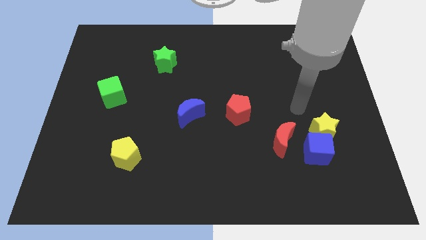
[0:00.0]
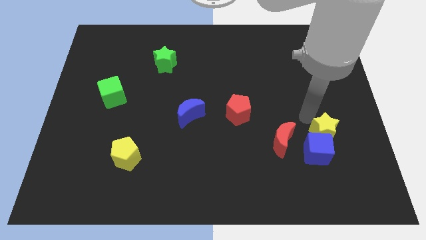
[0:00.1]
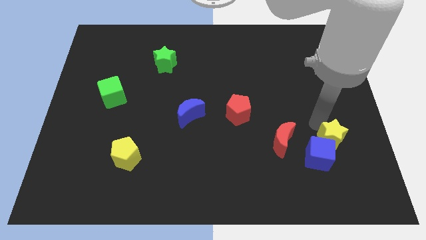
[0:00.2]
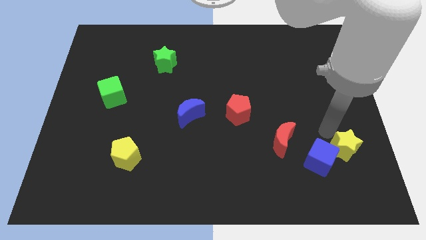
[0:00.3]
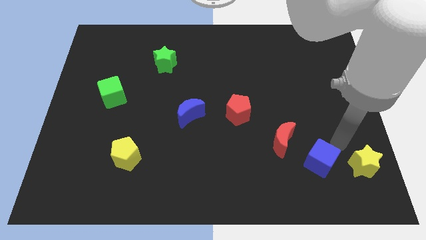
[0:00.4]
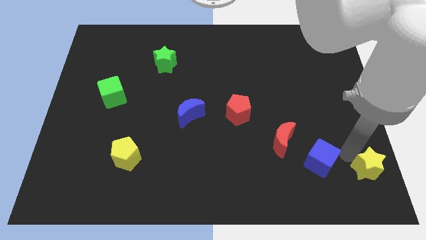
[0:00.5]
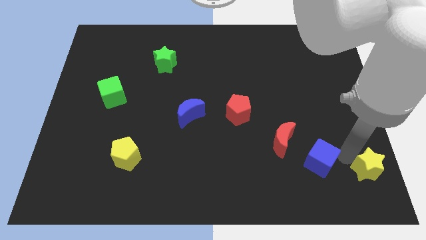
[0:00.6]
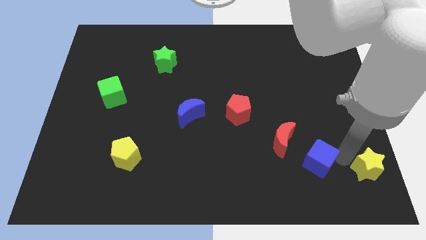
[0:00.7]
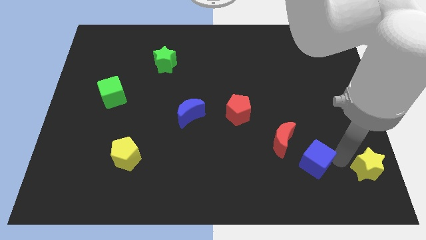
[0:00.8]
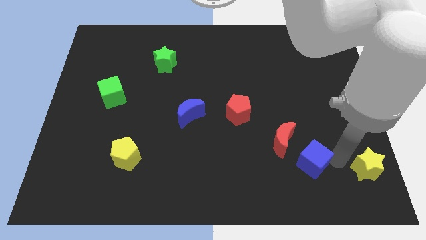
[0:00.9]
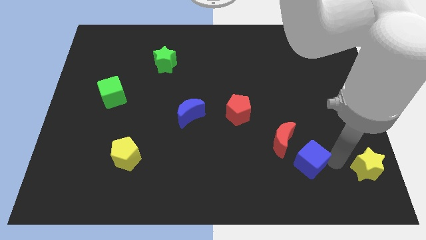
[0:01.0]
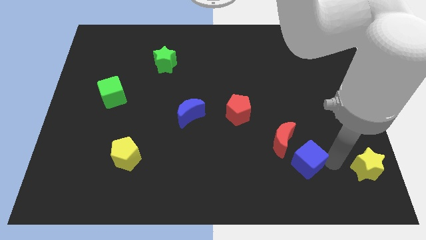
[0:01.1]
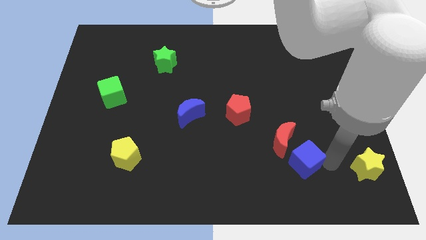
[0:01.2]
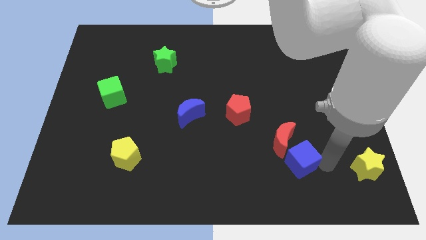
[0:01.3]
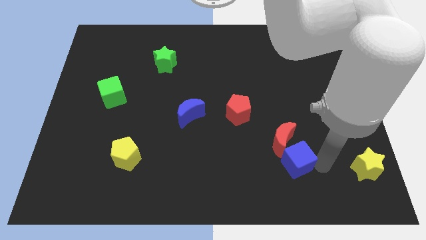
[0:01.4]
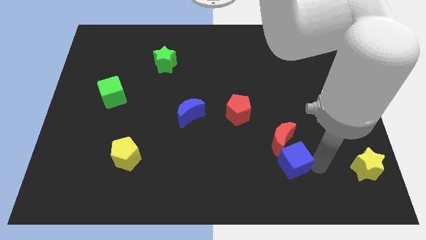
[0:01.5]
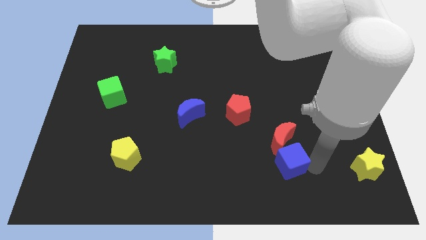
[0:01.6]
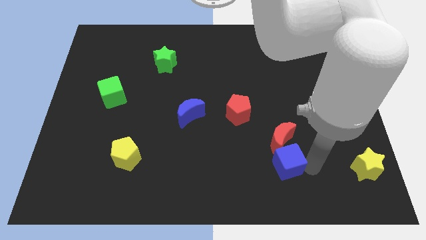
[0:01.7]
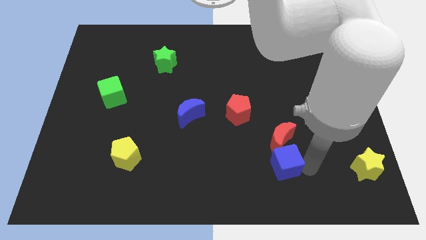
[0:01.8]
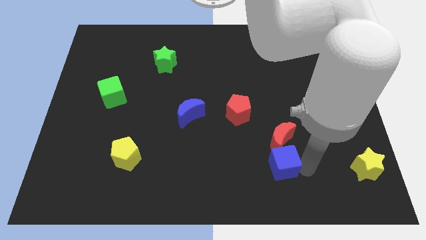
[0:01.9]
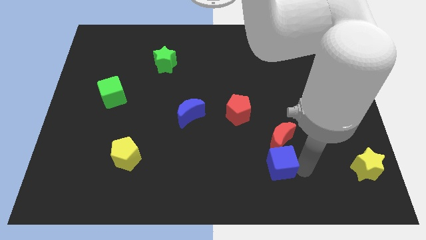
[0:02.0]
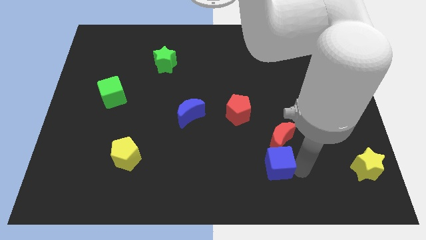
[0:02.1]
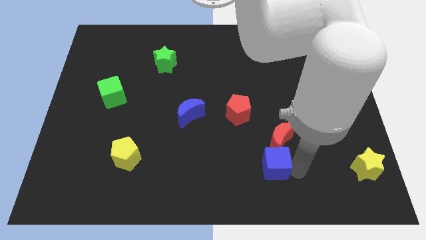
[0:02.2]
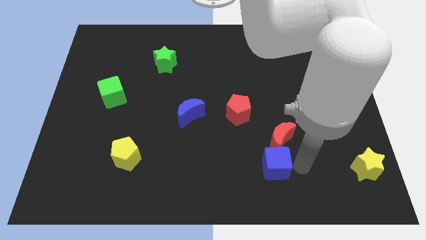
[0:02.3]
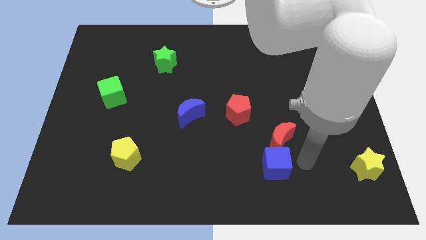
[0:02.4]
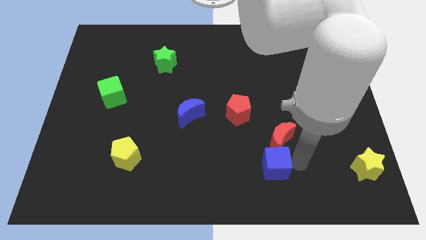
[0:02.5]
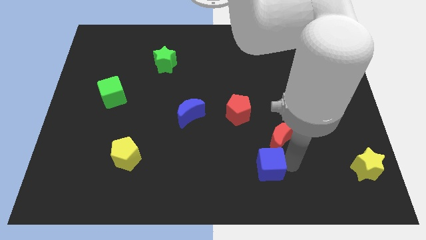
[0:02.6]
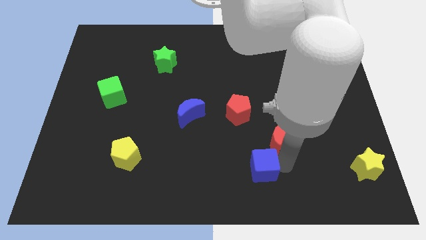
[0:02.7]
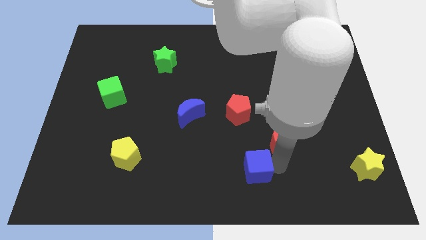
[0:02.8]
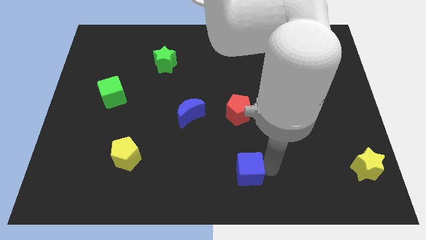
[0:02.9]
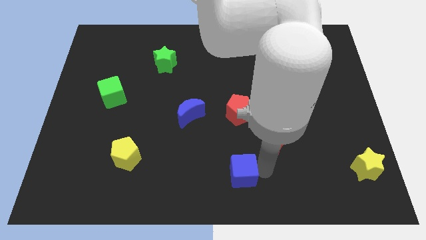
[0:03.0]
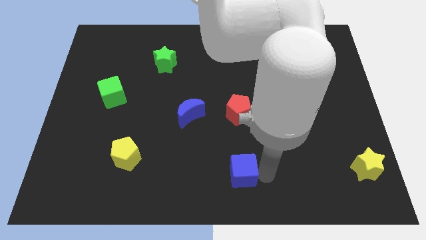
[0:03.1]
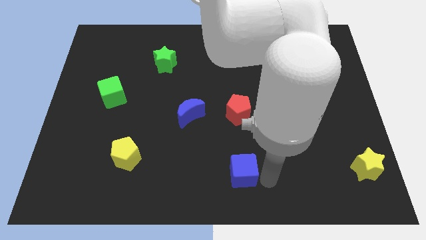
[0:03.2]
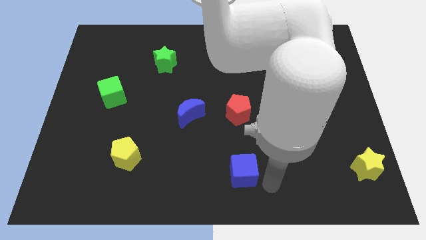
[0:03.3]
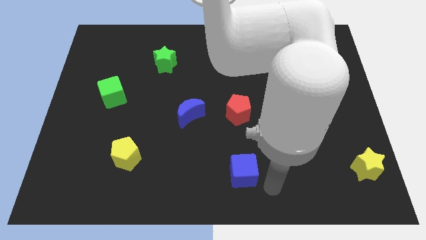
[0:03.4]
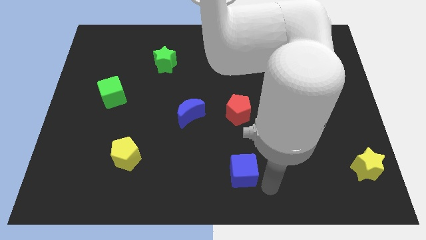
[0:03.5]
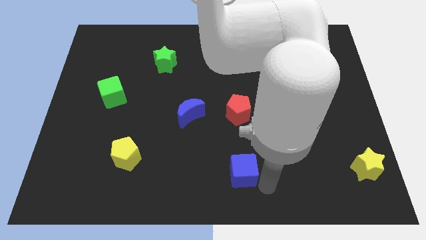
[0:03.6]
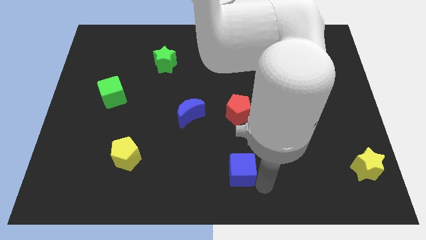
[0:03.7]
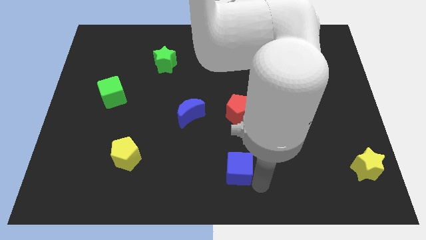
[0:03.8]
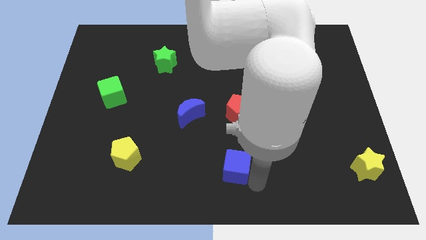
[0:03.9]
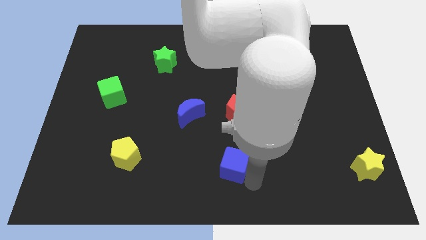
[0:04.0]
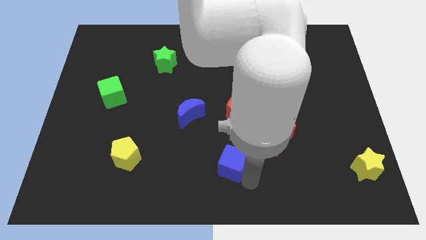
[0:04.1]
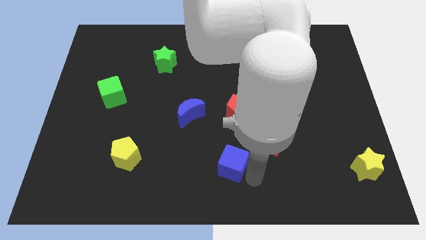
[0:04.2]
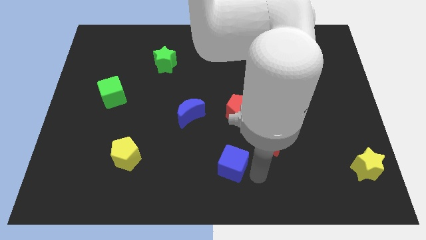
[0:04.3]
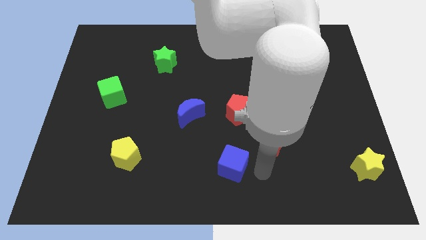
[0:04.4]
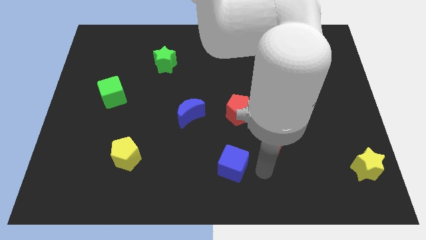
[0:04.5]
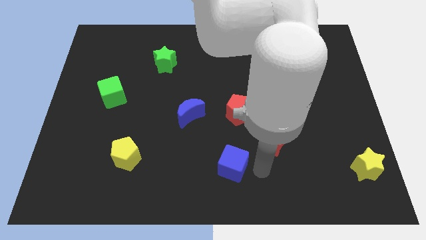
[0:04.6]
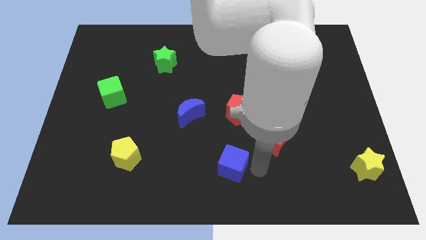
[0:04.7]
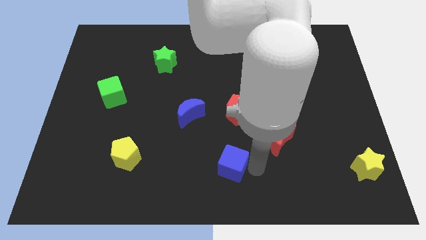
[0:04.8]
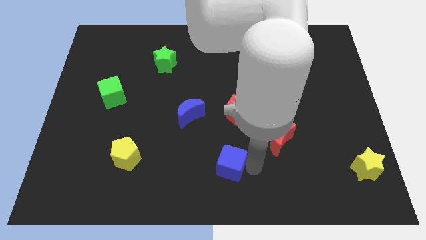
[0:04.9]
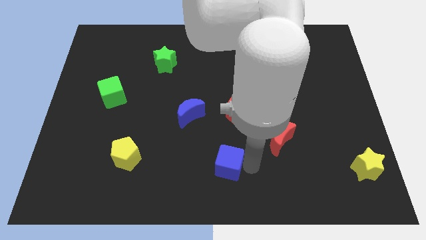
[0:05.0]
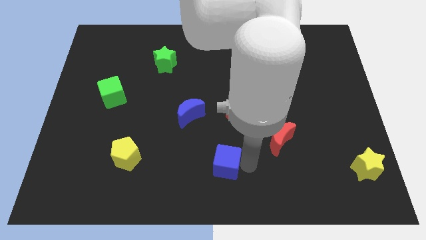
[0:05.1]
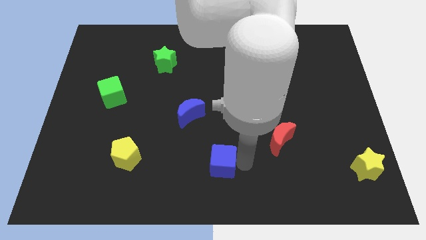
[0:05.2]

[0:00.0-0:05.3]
slide the blue cube to the left

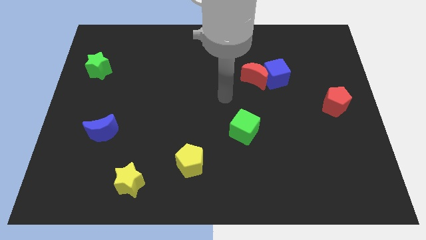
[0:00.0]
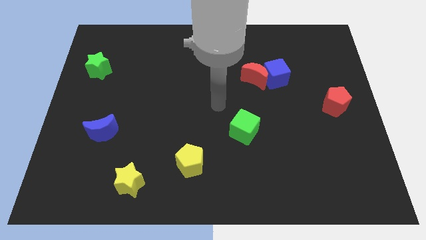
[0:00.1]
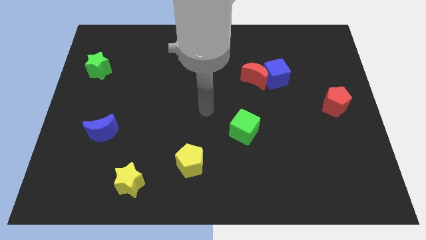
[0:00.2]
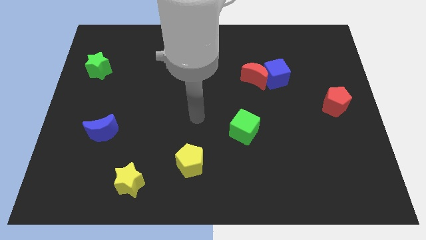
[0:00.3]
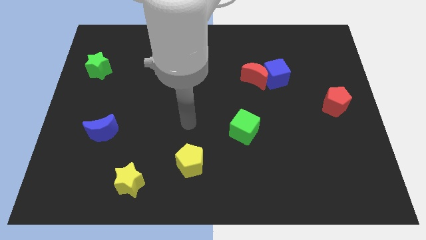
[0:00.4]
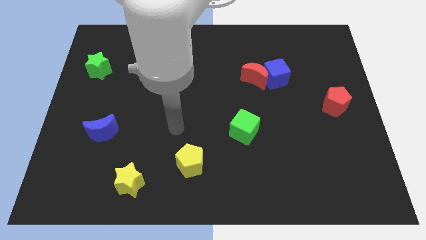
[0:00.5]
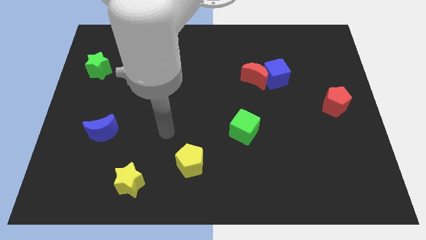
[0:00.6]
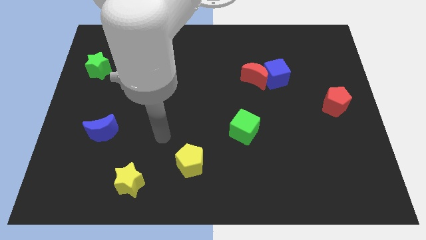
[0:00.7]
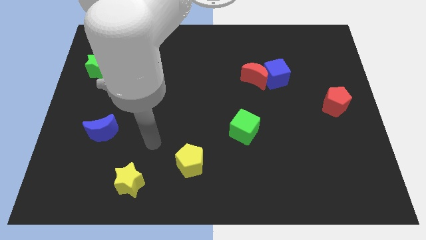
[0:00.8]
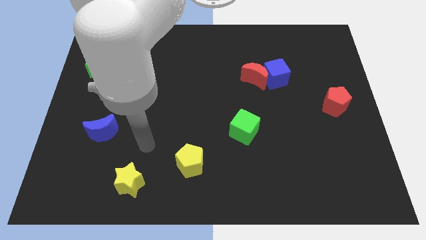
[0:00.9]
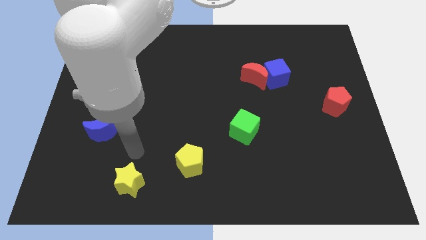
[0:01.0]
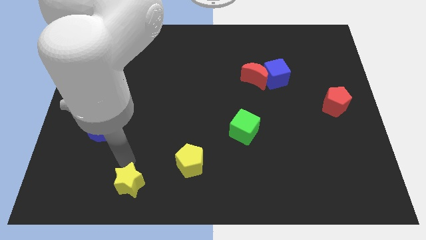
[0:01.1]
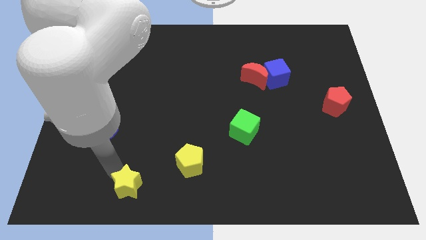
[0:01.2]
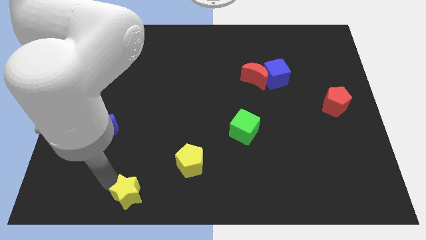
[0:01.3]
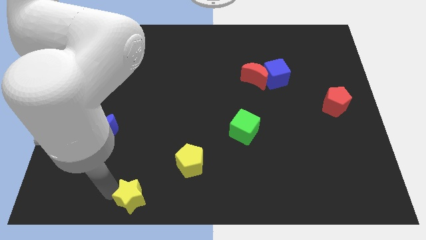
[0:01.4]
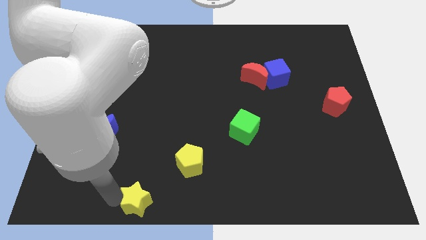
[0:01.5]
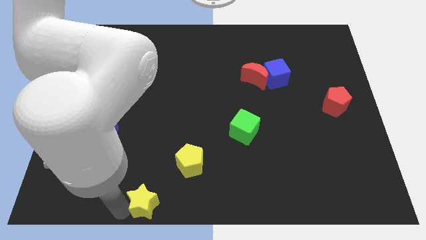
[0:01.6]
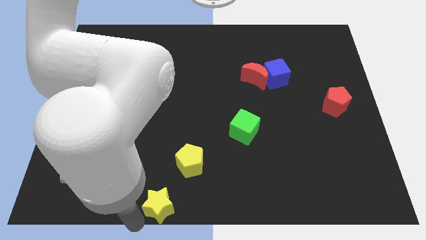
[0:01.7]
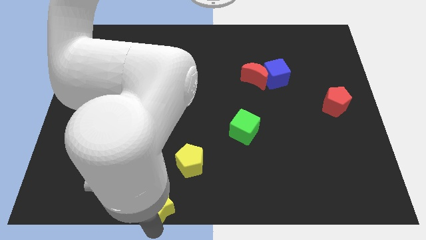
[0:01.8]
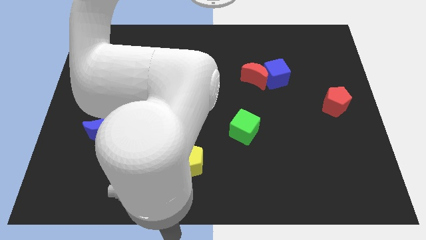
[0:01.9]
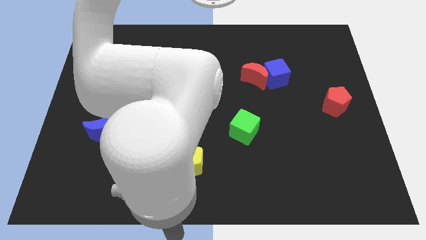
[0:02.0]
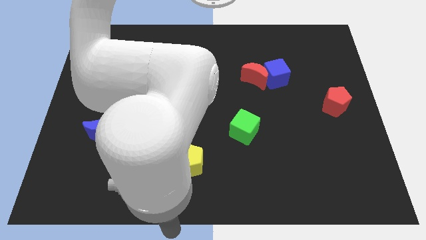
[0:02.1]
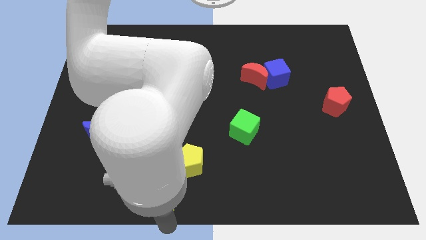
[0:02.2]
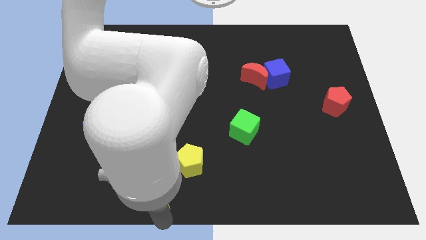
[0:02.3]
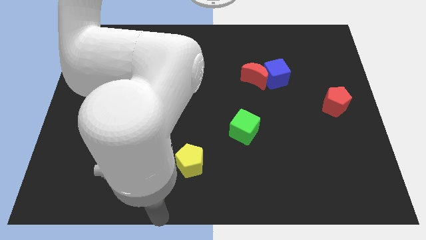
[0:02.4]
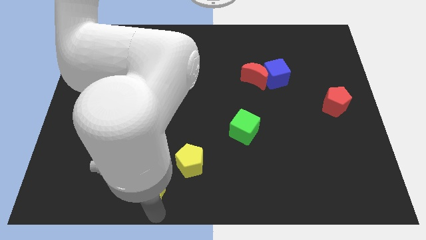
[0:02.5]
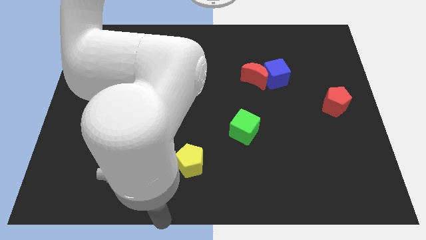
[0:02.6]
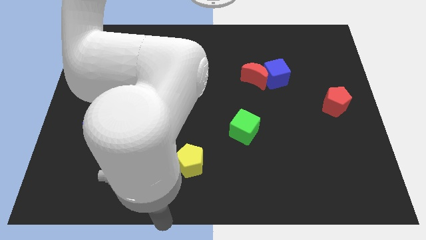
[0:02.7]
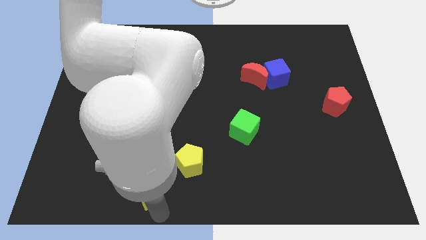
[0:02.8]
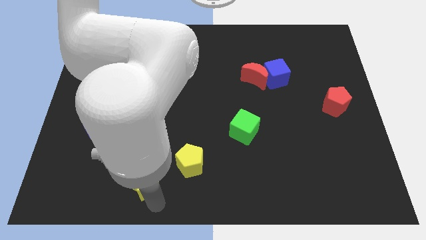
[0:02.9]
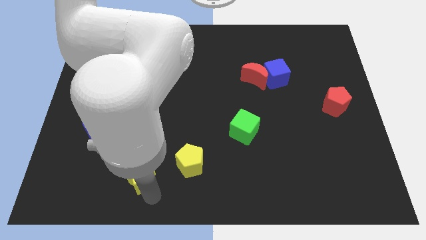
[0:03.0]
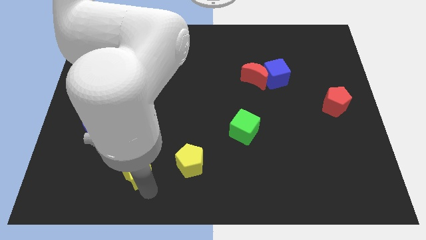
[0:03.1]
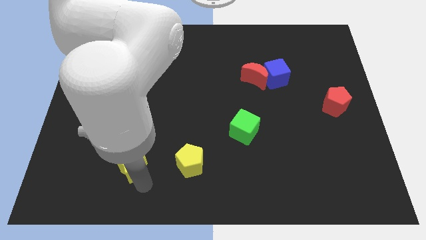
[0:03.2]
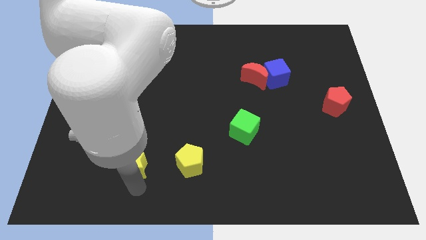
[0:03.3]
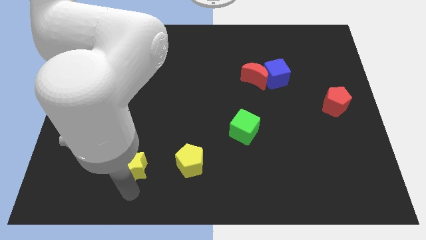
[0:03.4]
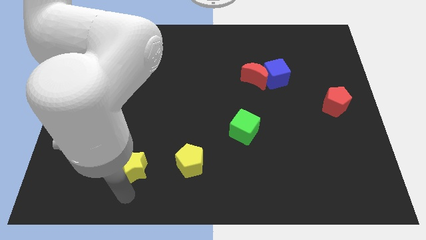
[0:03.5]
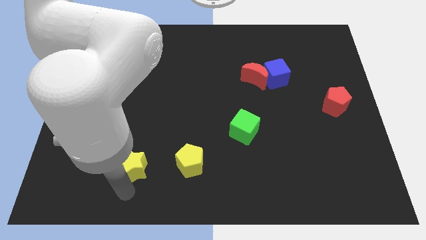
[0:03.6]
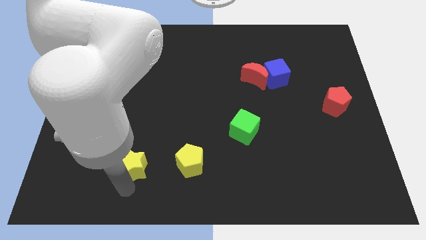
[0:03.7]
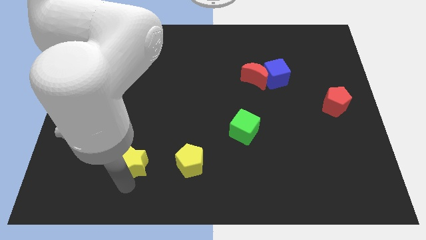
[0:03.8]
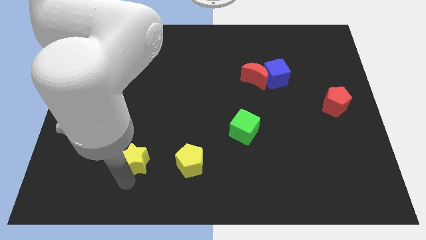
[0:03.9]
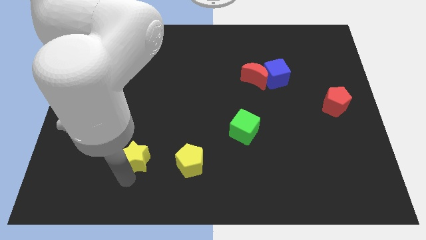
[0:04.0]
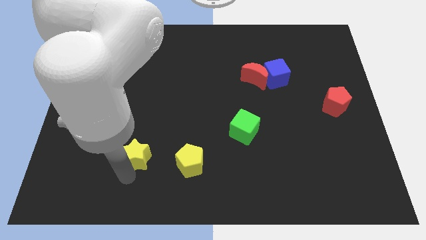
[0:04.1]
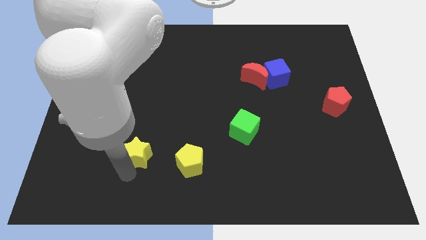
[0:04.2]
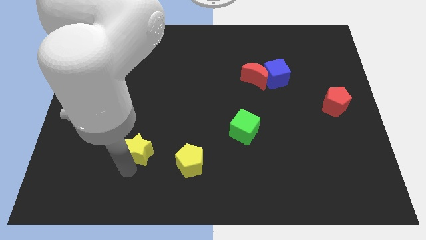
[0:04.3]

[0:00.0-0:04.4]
move the yellow star somewhat upwards
